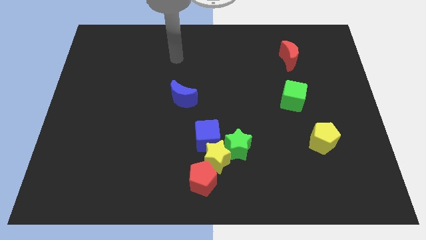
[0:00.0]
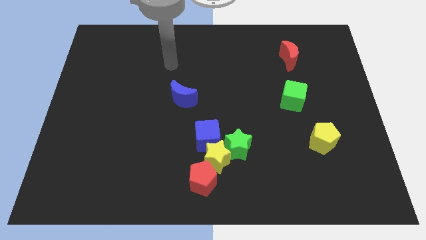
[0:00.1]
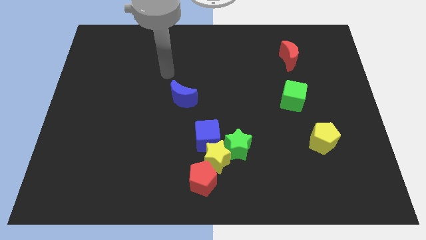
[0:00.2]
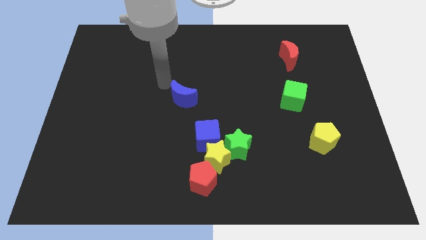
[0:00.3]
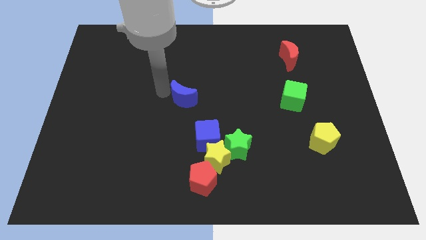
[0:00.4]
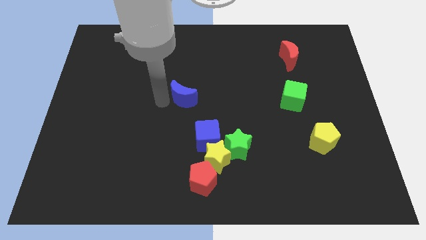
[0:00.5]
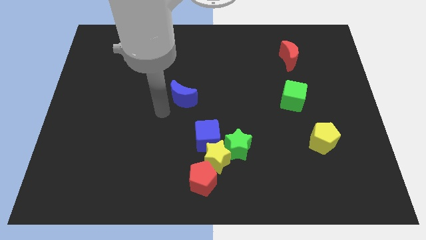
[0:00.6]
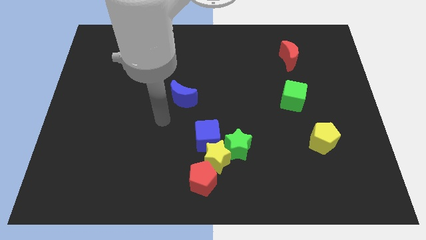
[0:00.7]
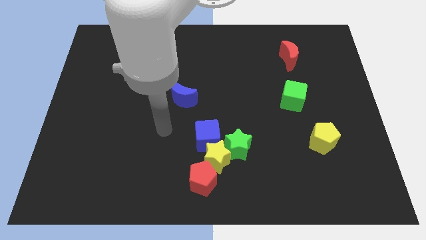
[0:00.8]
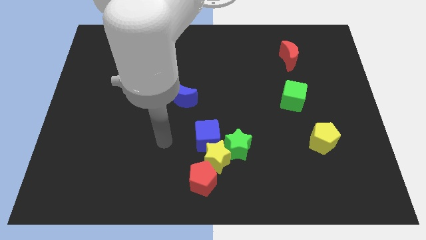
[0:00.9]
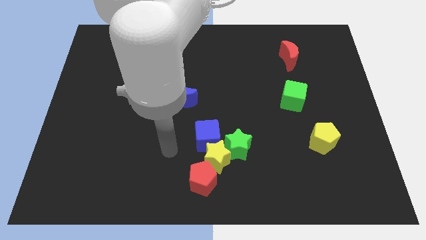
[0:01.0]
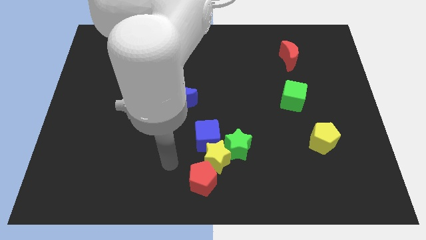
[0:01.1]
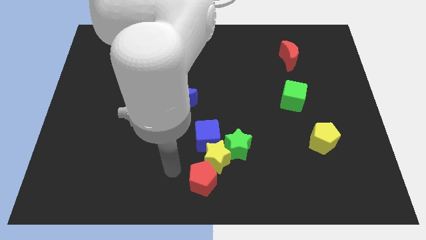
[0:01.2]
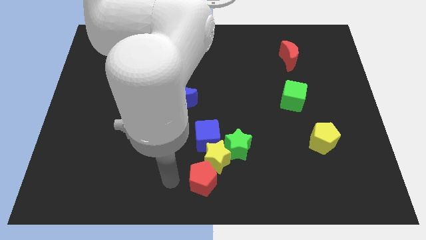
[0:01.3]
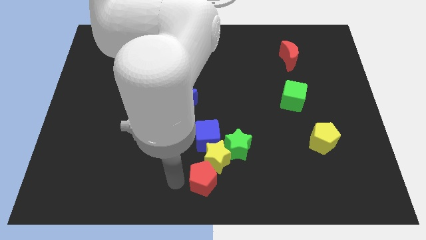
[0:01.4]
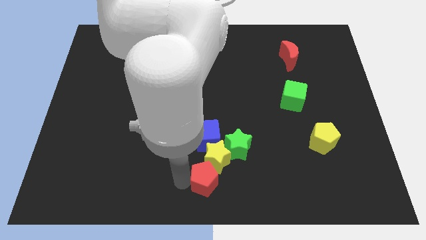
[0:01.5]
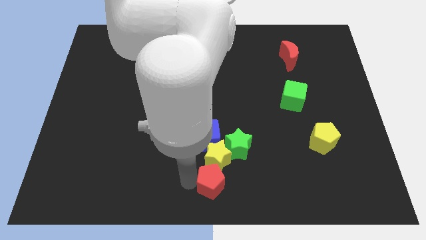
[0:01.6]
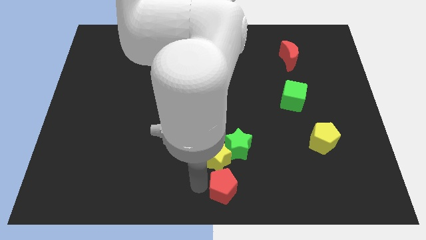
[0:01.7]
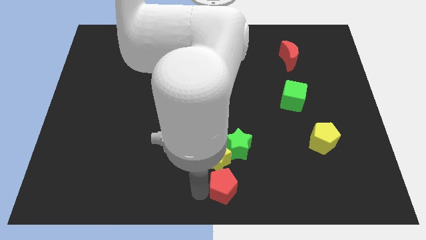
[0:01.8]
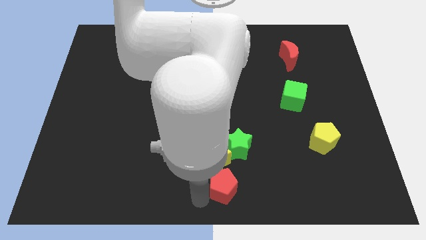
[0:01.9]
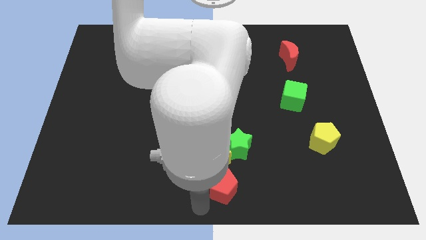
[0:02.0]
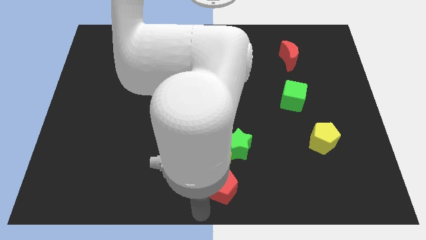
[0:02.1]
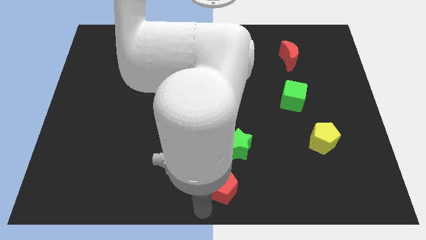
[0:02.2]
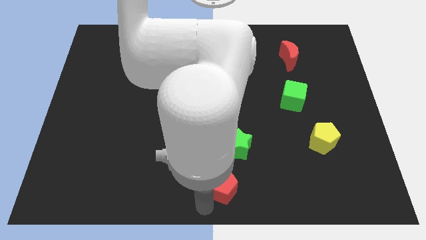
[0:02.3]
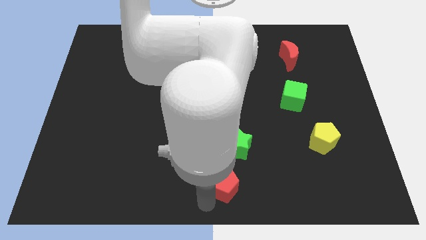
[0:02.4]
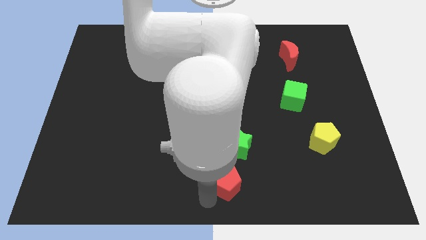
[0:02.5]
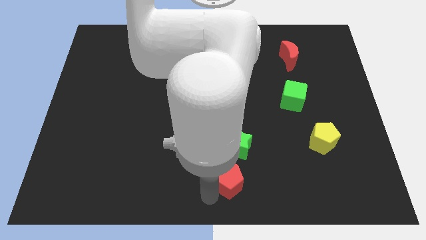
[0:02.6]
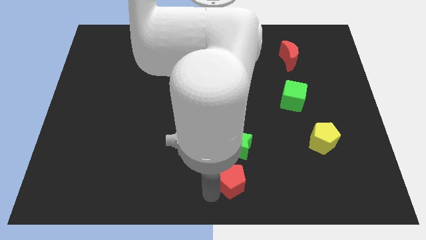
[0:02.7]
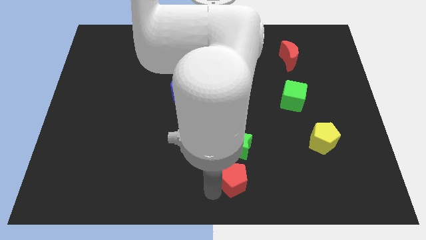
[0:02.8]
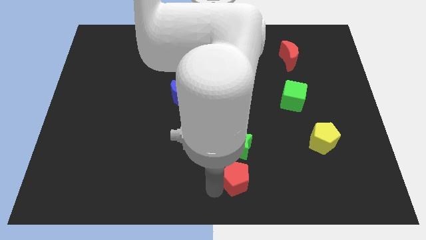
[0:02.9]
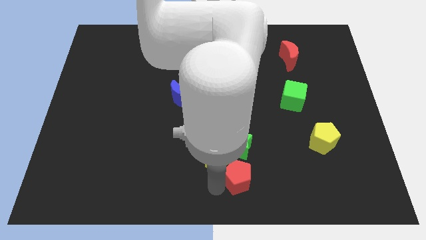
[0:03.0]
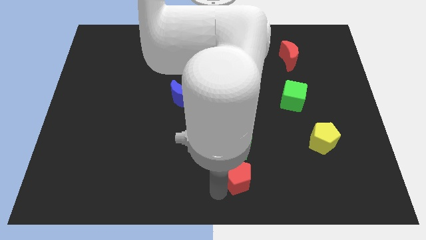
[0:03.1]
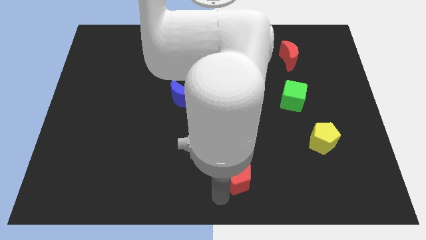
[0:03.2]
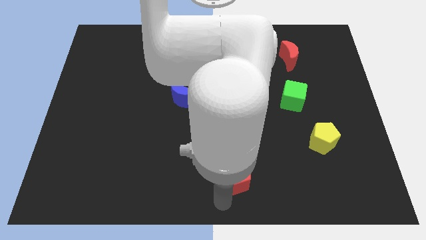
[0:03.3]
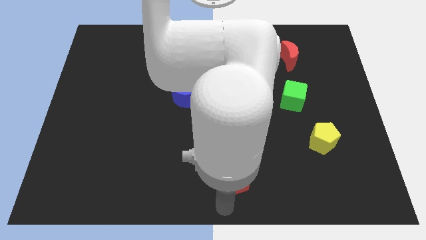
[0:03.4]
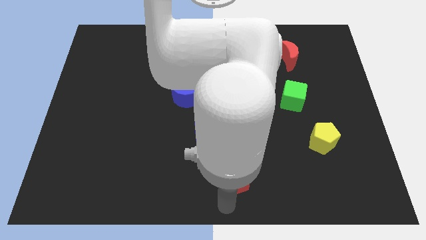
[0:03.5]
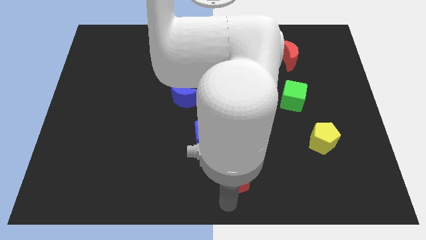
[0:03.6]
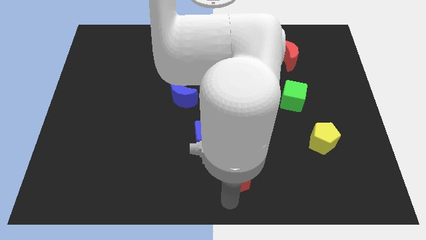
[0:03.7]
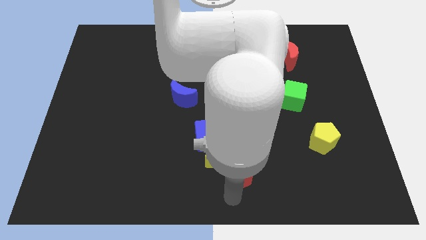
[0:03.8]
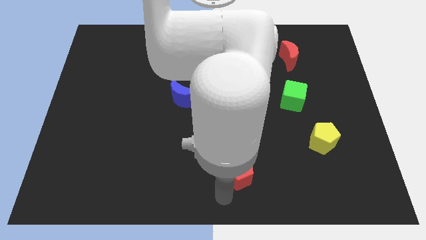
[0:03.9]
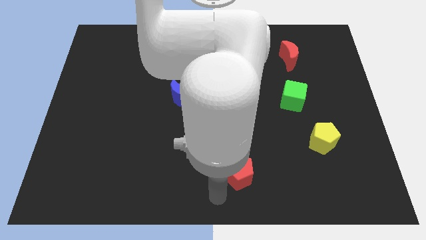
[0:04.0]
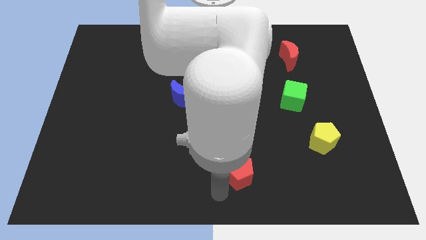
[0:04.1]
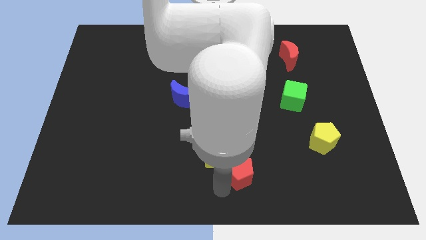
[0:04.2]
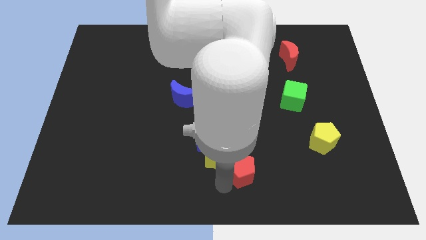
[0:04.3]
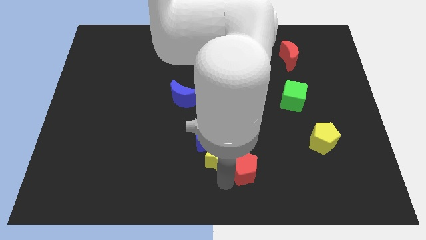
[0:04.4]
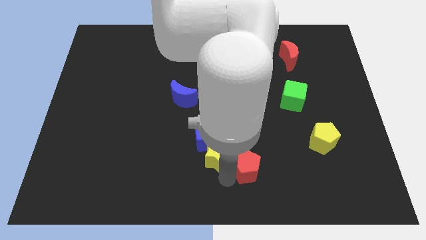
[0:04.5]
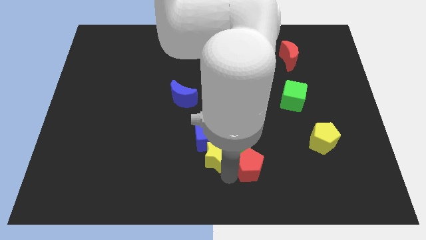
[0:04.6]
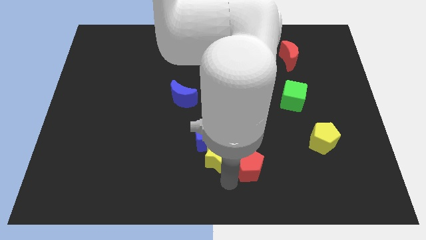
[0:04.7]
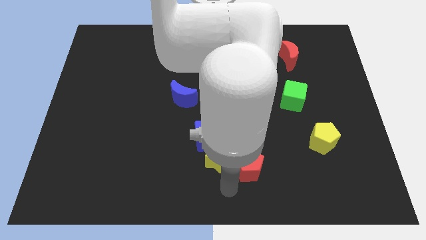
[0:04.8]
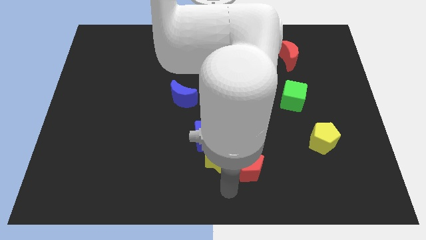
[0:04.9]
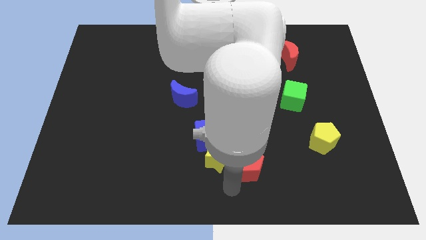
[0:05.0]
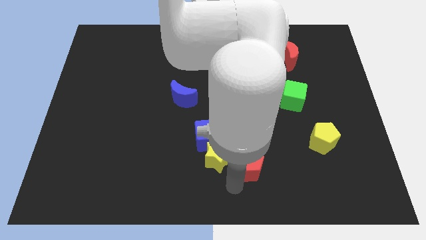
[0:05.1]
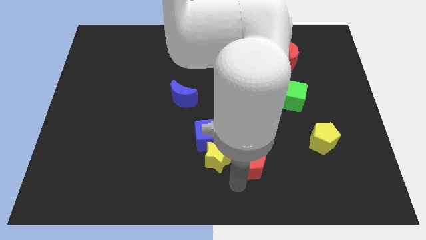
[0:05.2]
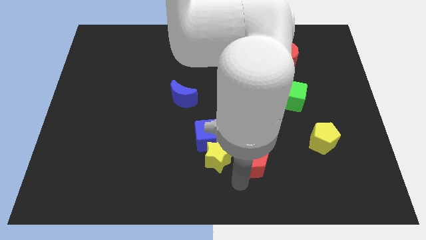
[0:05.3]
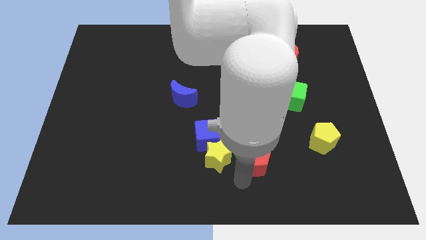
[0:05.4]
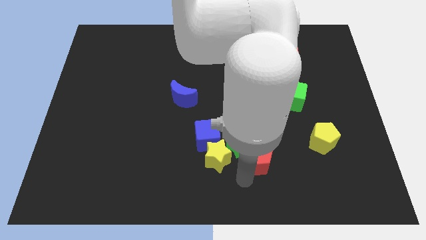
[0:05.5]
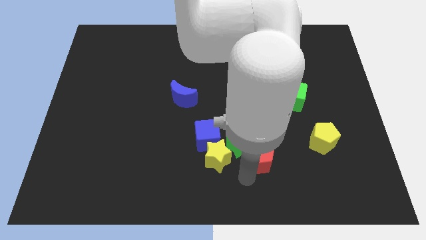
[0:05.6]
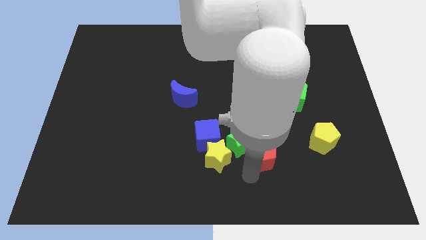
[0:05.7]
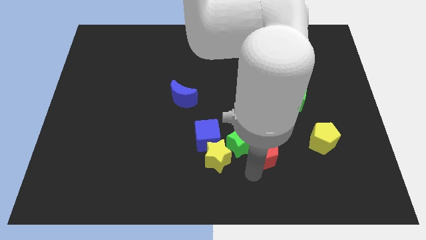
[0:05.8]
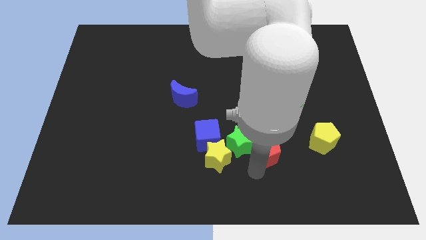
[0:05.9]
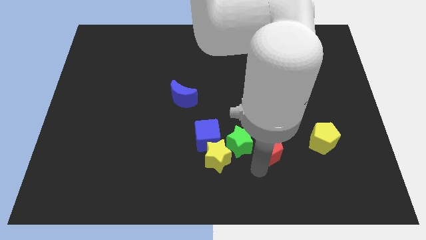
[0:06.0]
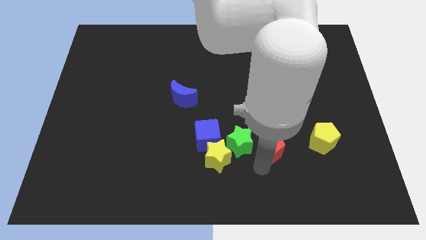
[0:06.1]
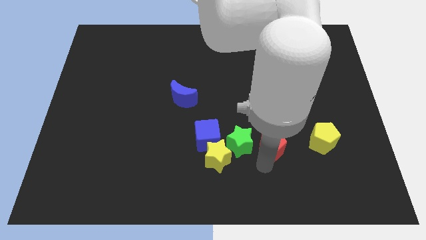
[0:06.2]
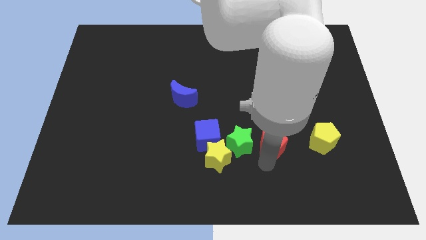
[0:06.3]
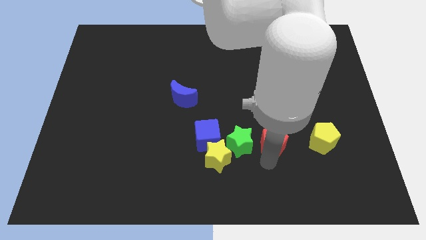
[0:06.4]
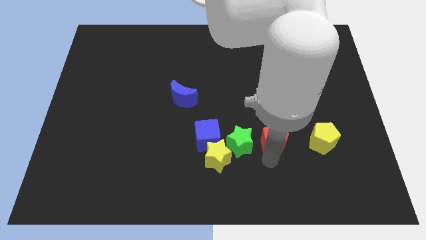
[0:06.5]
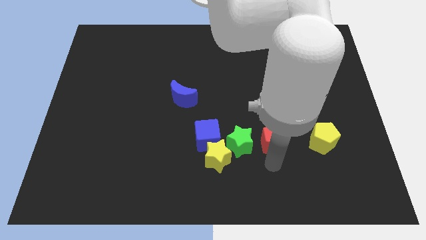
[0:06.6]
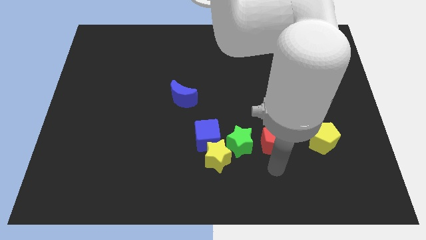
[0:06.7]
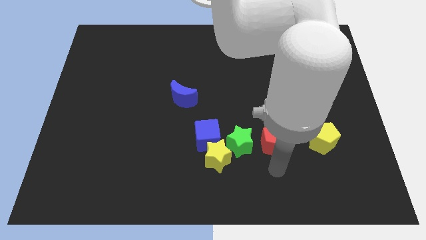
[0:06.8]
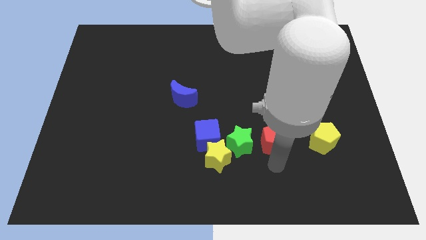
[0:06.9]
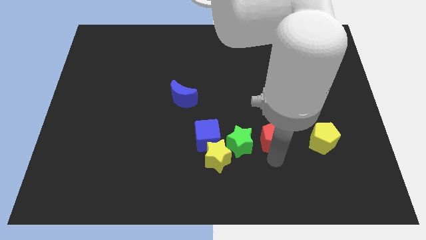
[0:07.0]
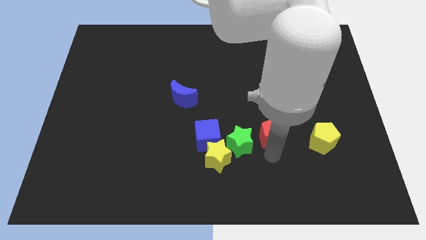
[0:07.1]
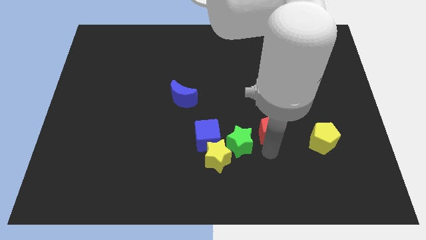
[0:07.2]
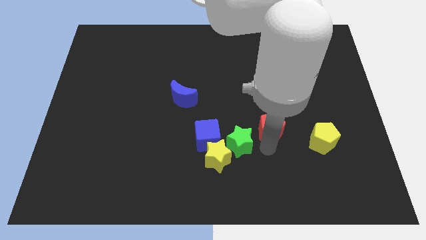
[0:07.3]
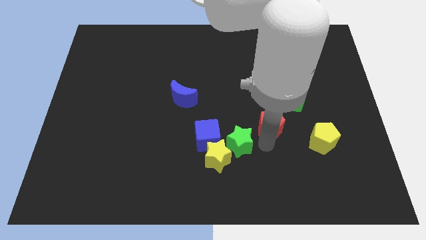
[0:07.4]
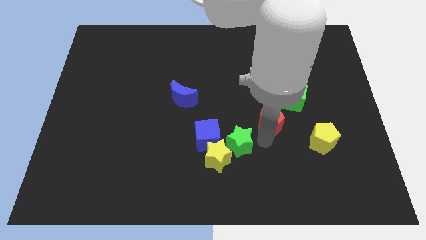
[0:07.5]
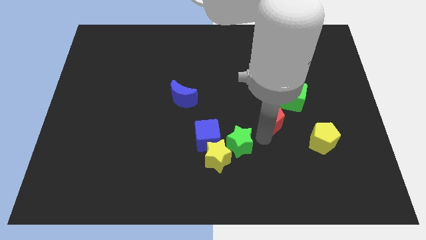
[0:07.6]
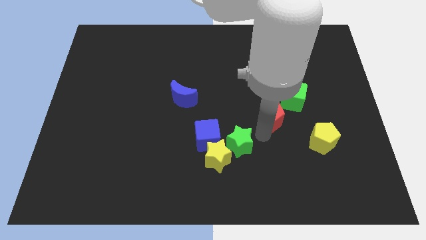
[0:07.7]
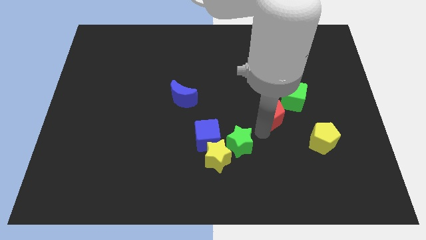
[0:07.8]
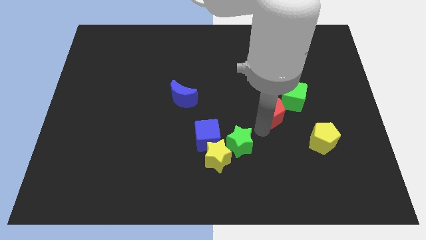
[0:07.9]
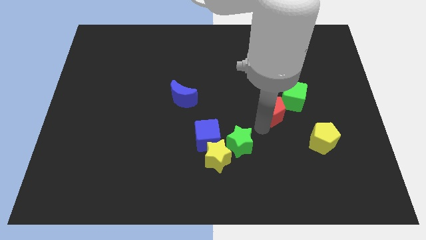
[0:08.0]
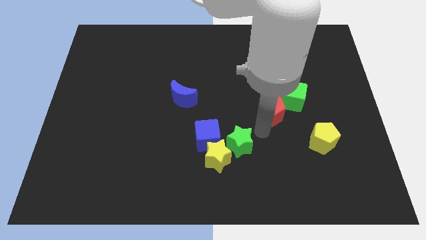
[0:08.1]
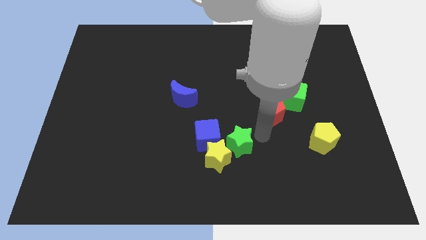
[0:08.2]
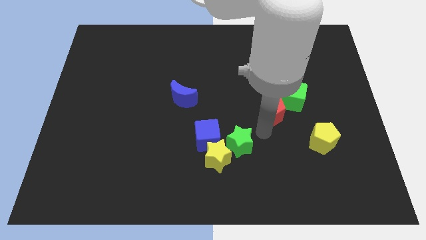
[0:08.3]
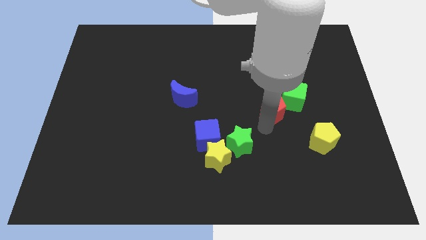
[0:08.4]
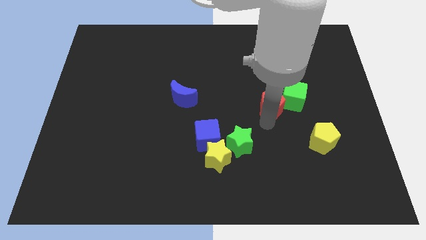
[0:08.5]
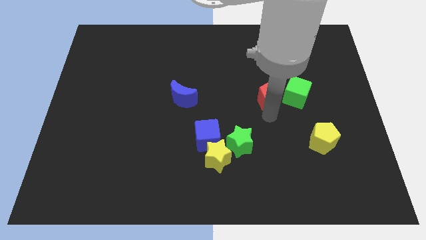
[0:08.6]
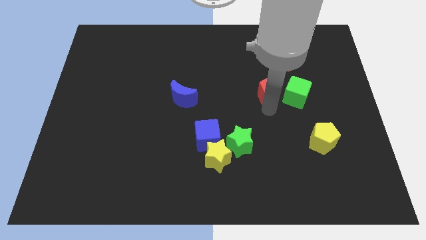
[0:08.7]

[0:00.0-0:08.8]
push the red pentagon to the top left side of the green cube
